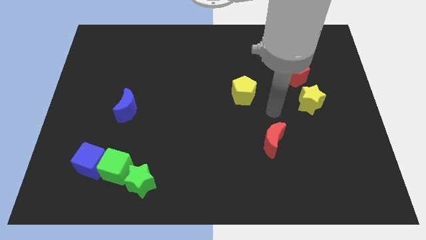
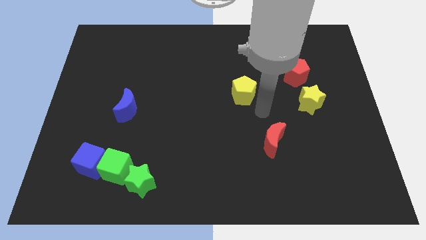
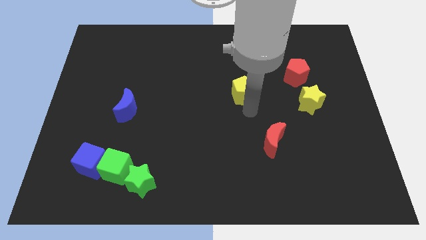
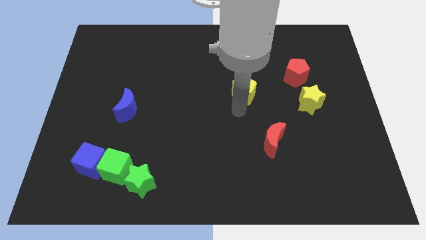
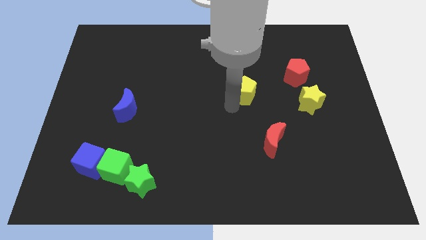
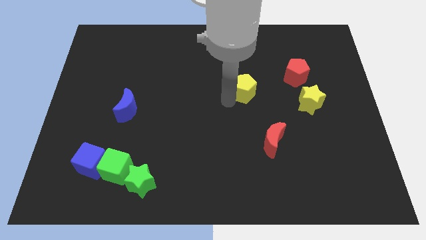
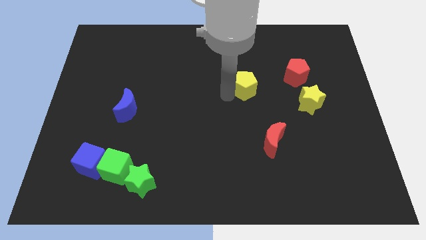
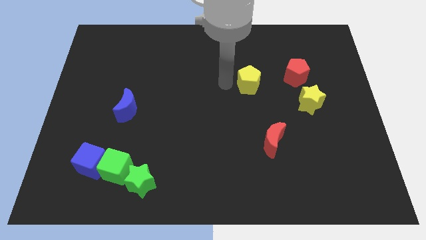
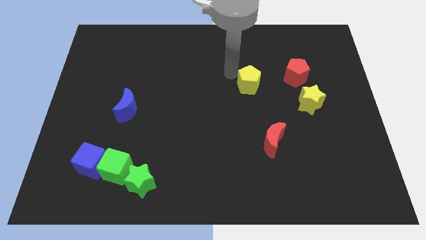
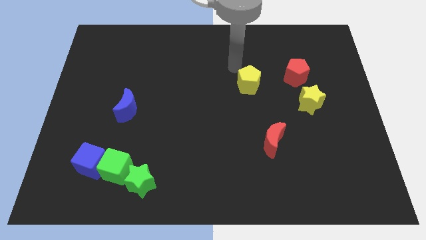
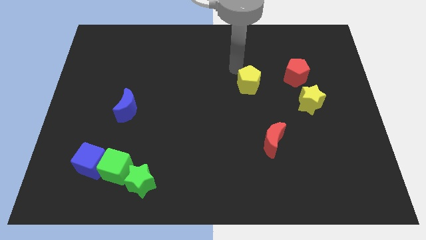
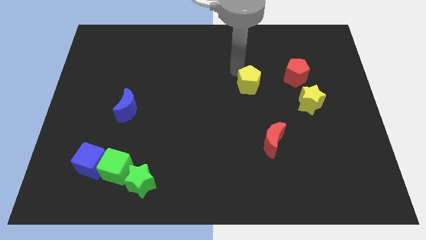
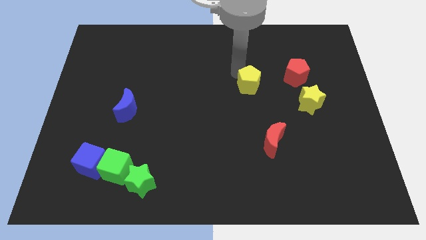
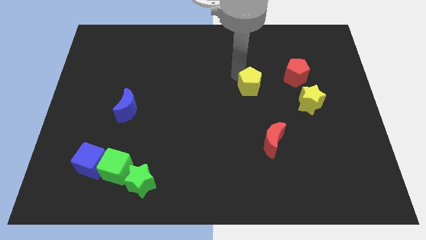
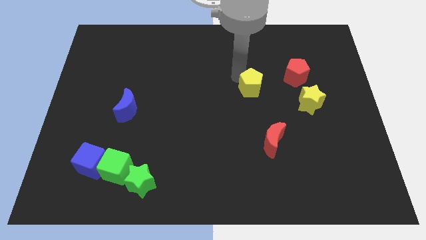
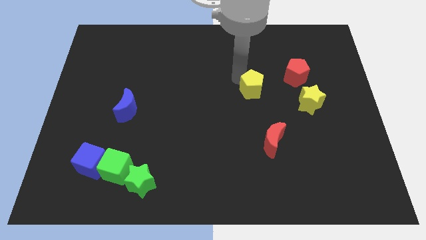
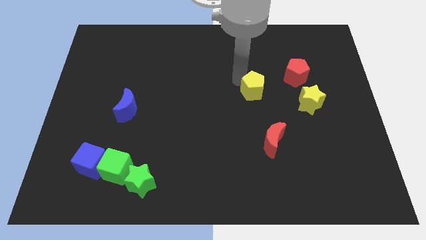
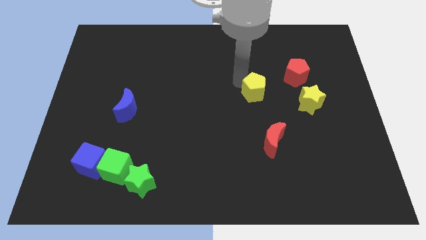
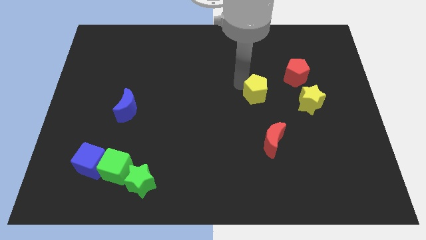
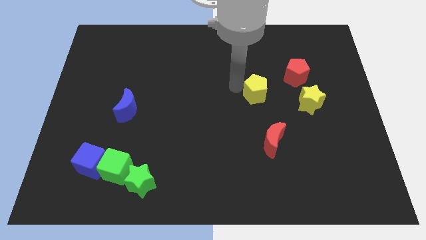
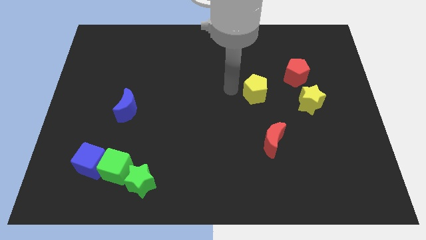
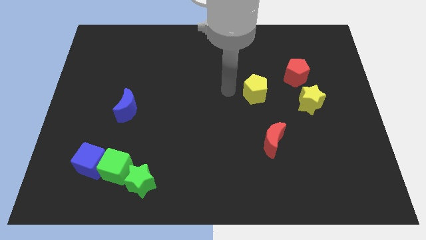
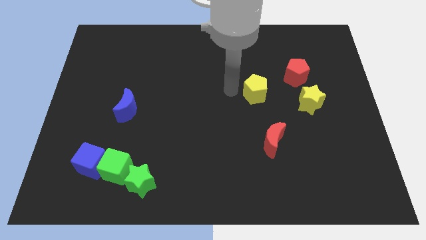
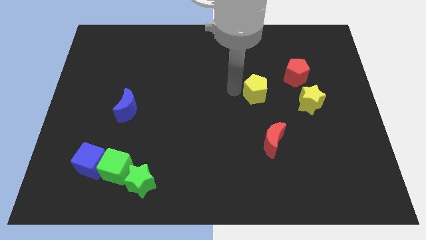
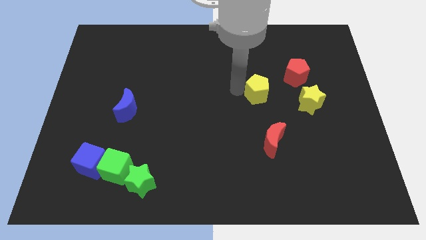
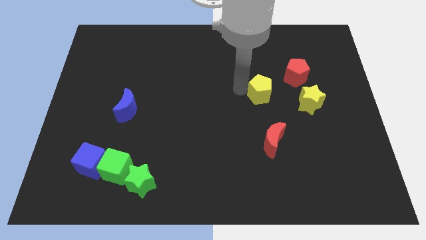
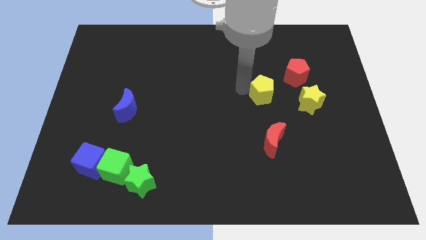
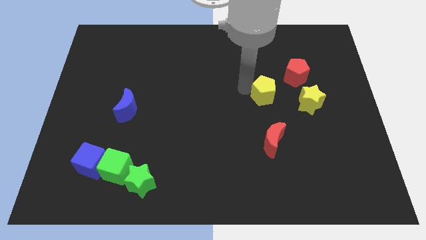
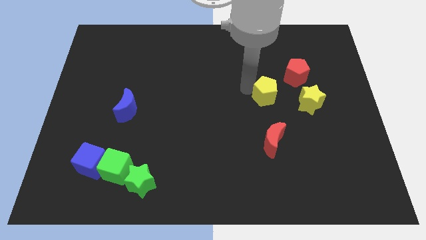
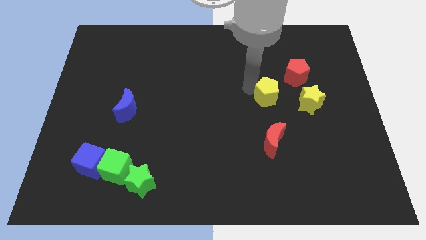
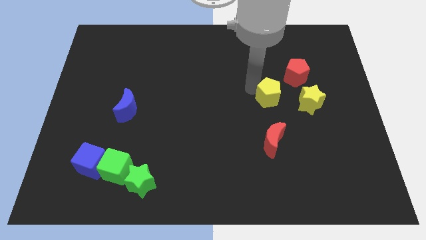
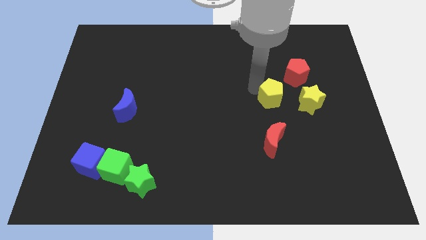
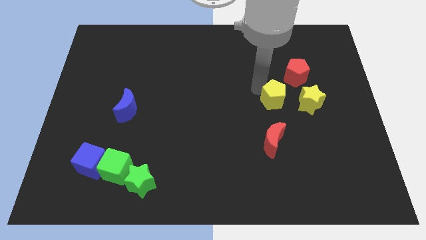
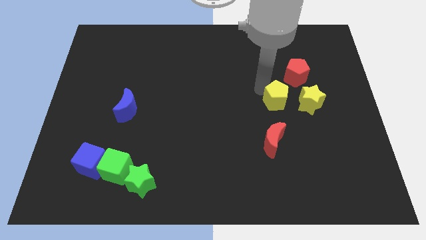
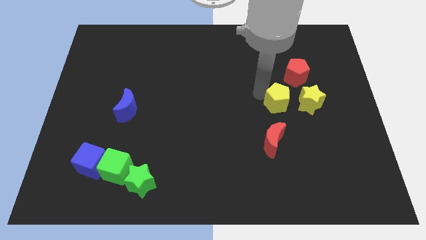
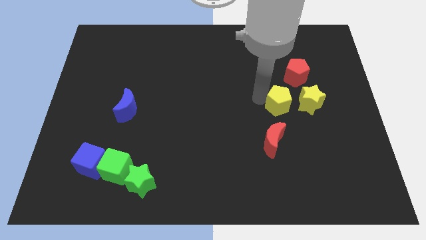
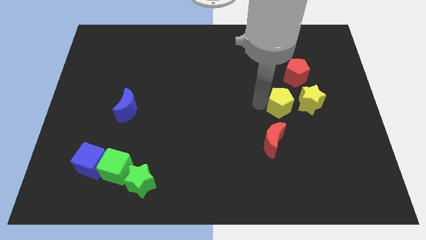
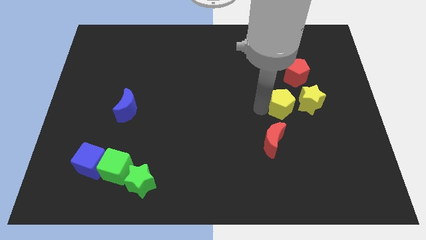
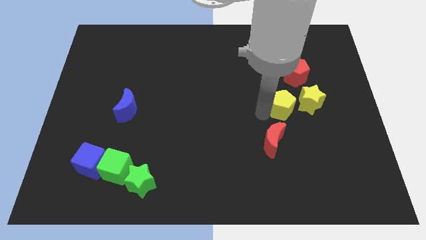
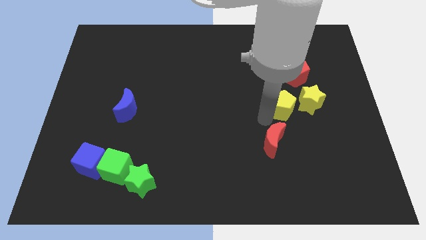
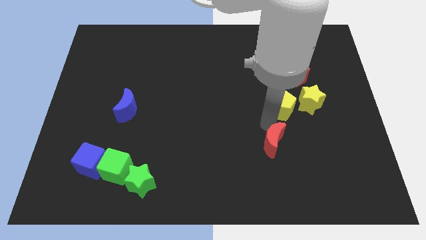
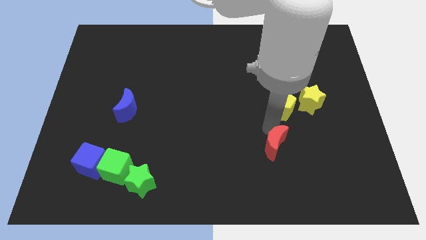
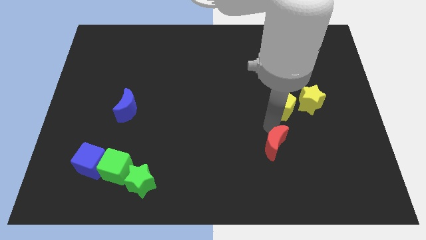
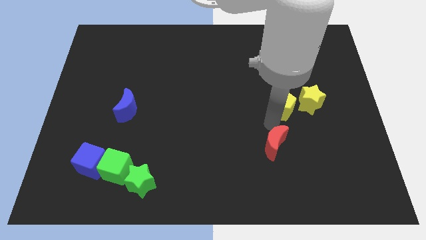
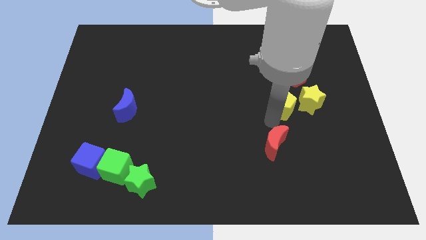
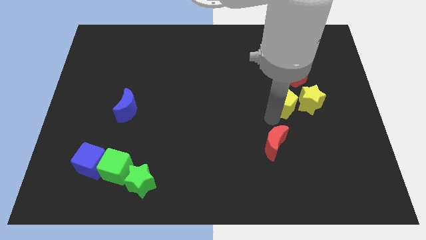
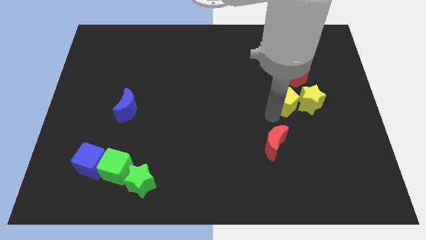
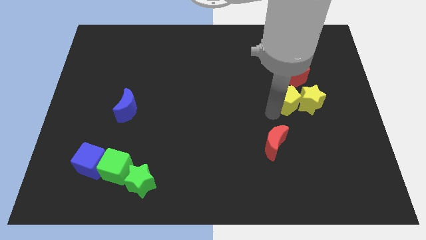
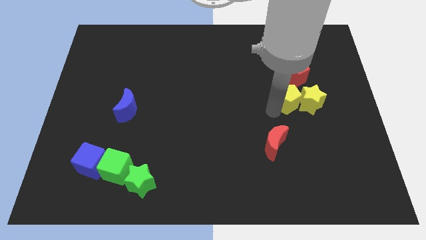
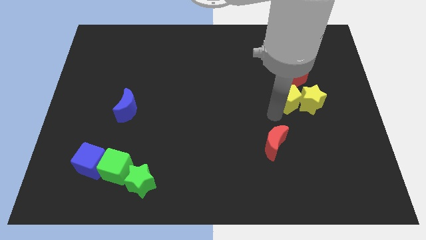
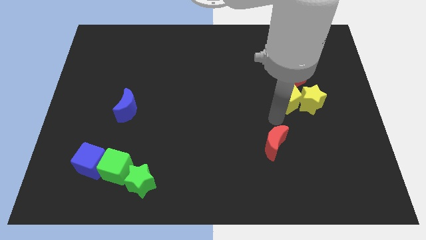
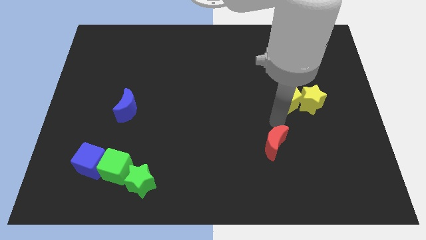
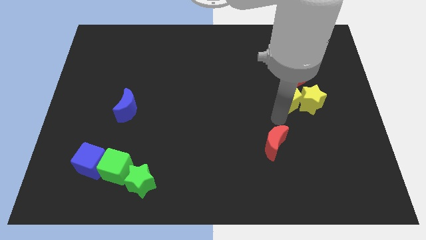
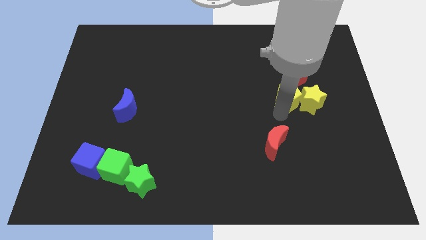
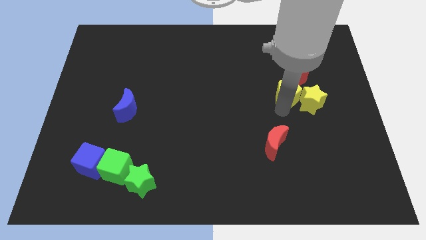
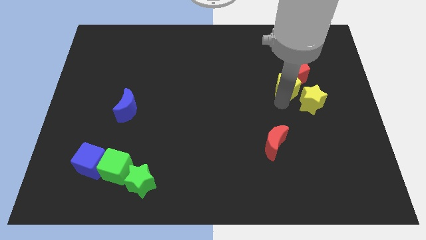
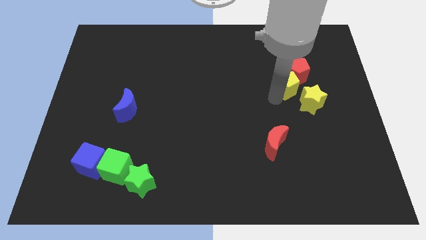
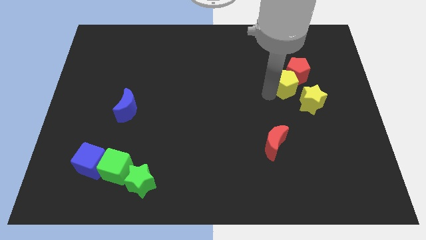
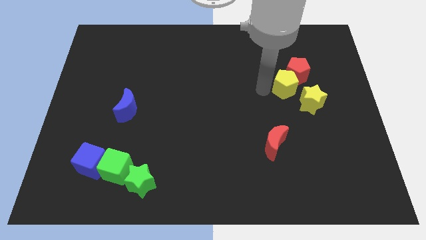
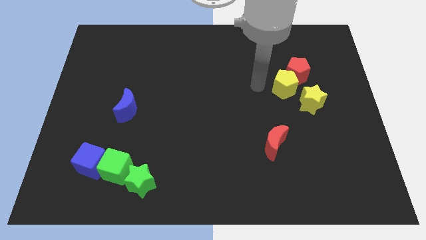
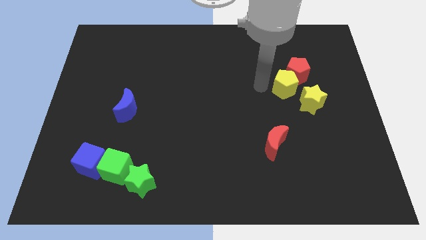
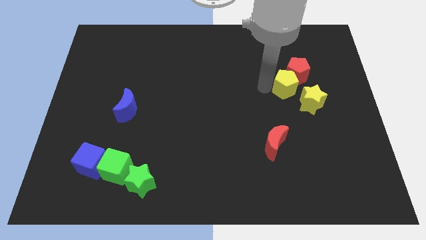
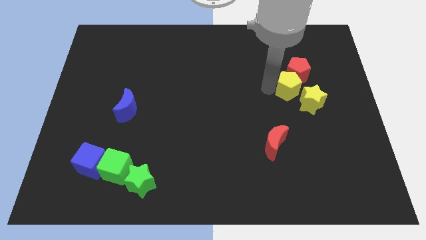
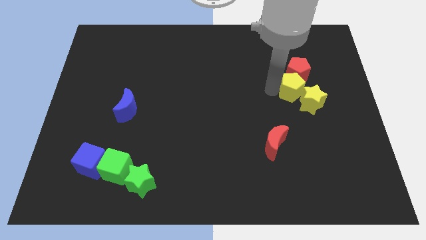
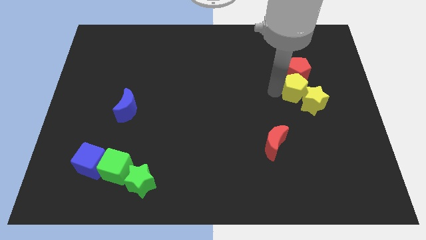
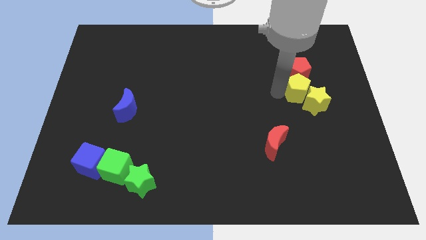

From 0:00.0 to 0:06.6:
push the yellow pentagon to the bottom right of the red pentagon
